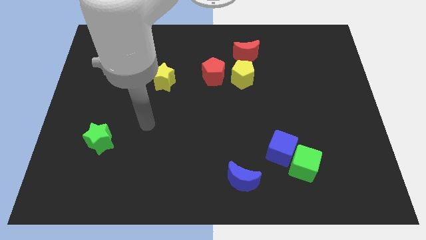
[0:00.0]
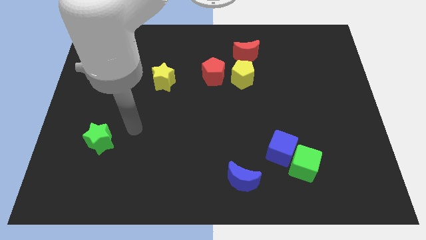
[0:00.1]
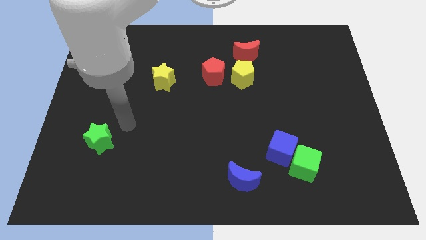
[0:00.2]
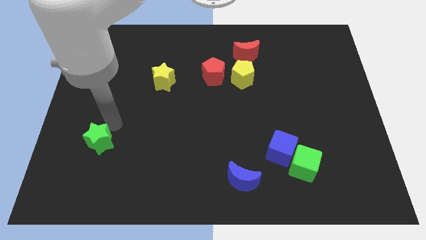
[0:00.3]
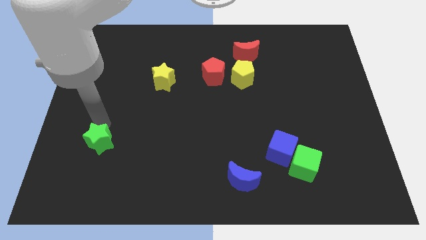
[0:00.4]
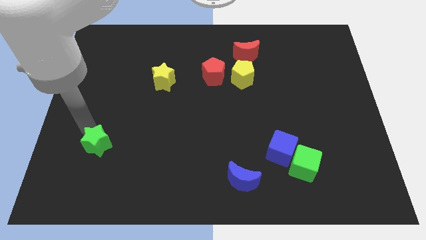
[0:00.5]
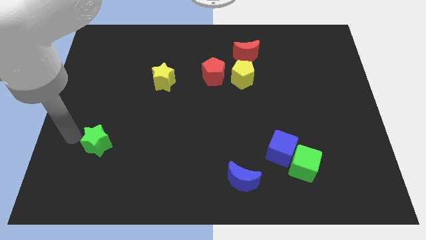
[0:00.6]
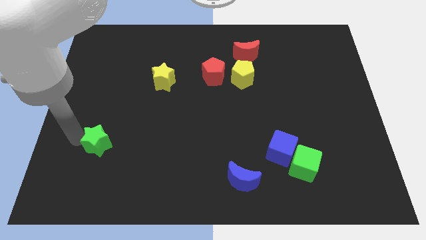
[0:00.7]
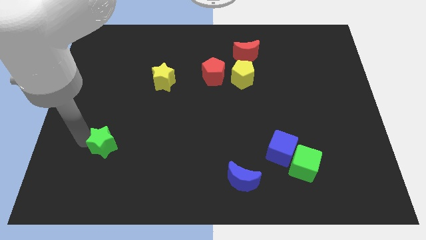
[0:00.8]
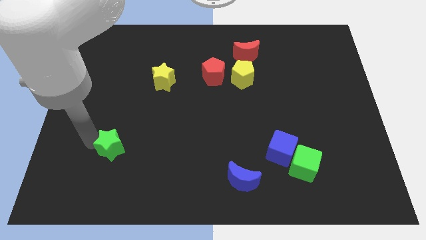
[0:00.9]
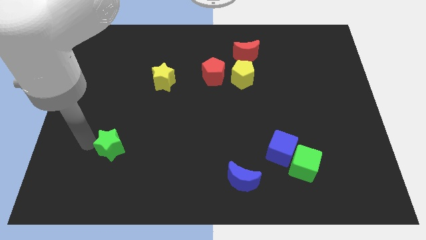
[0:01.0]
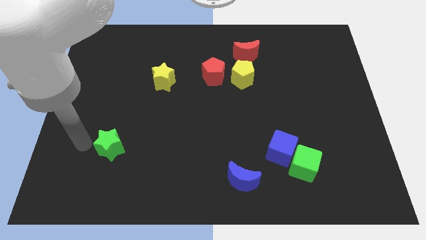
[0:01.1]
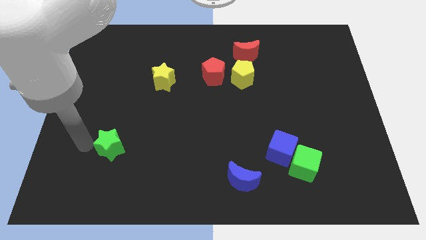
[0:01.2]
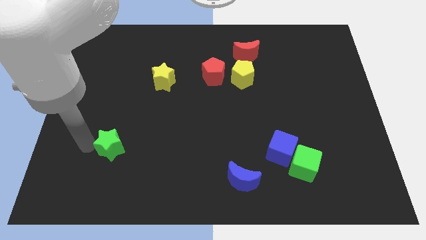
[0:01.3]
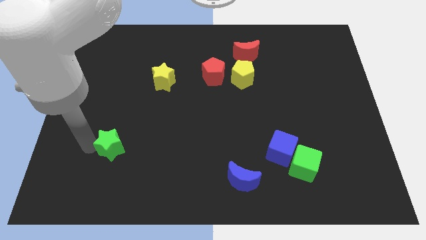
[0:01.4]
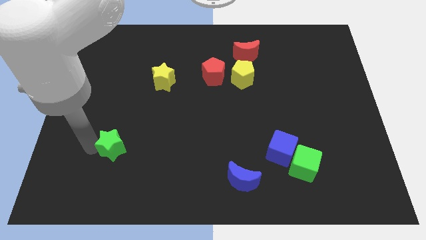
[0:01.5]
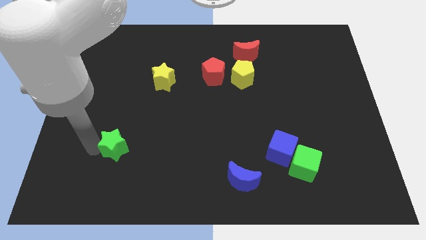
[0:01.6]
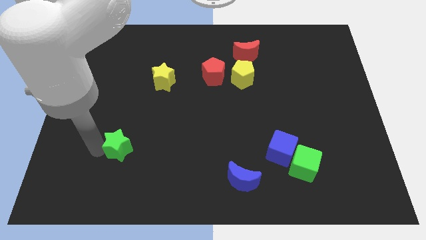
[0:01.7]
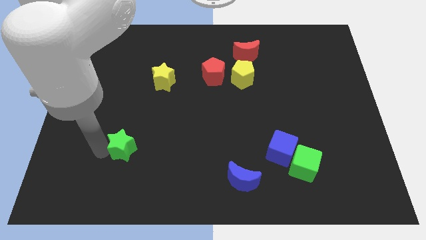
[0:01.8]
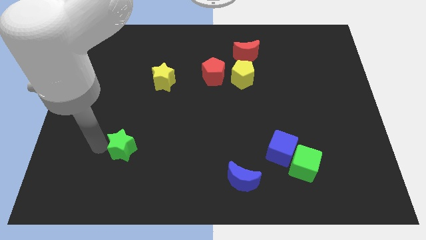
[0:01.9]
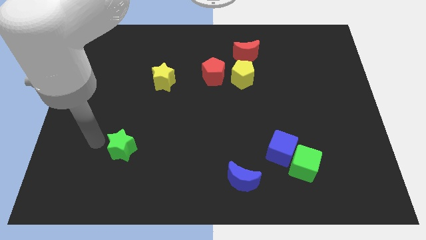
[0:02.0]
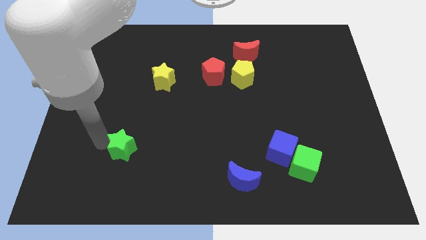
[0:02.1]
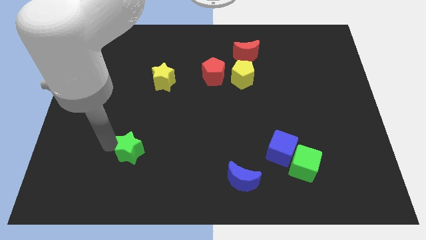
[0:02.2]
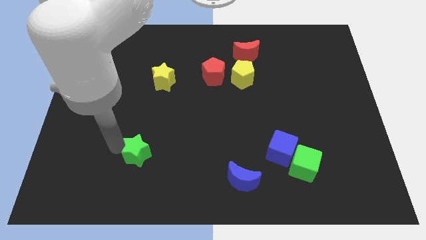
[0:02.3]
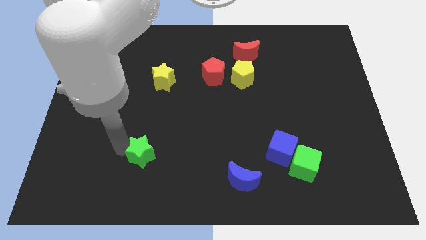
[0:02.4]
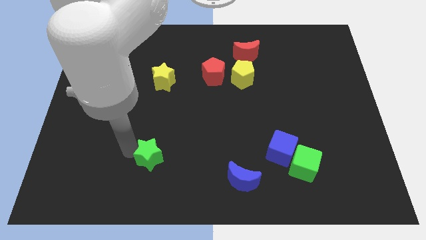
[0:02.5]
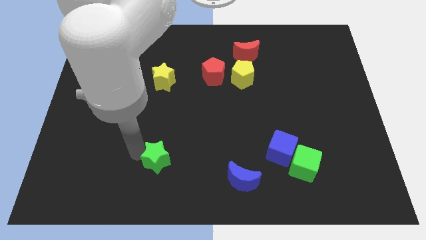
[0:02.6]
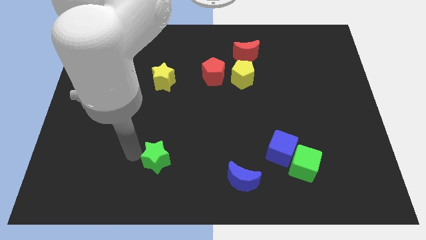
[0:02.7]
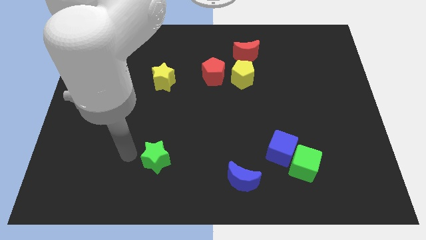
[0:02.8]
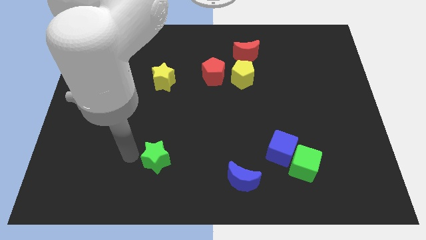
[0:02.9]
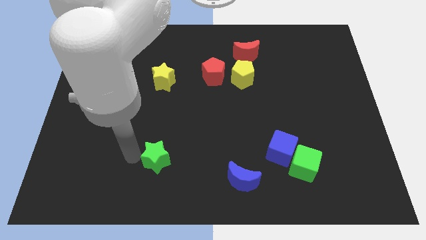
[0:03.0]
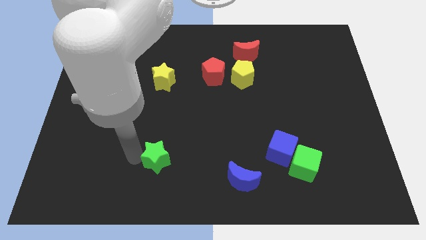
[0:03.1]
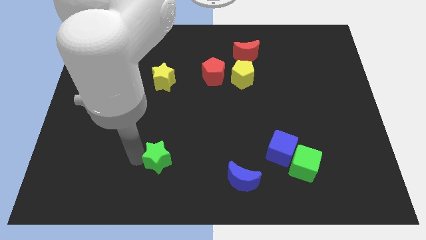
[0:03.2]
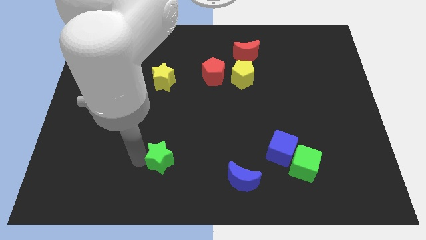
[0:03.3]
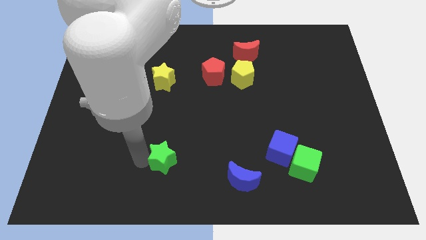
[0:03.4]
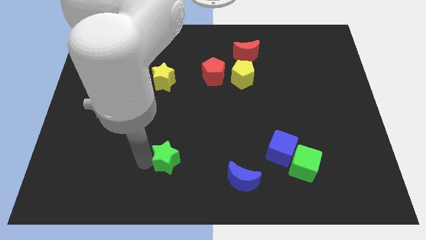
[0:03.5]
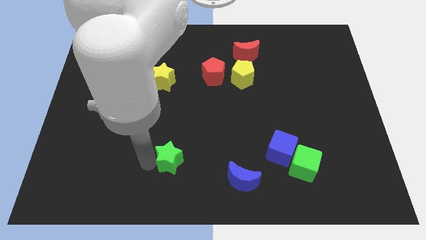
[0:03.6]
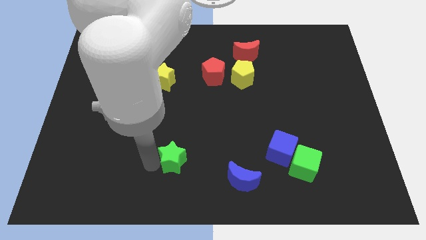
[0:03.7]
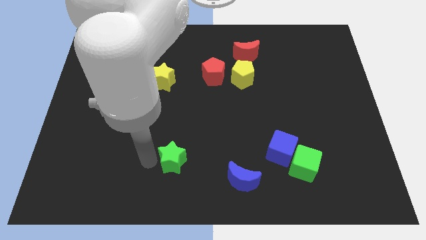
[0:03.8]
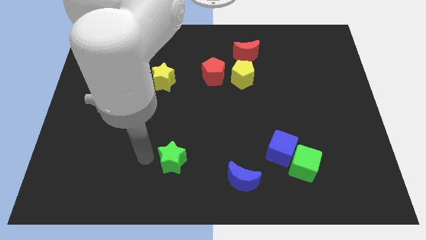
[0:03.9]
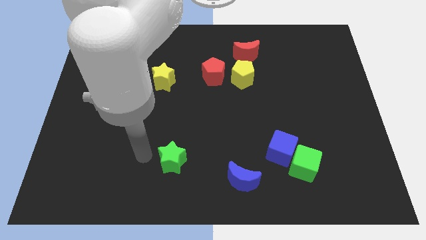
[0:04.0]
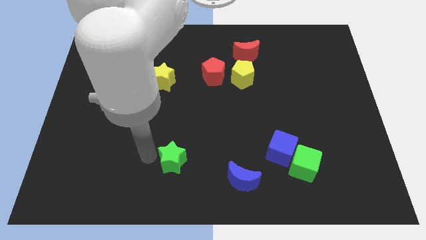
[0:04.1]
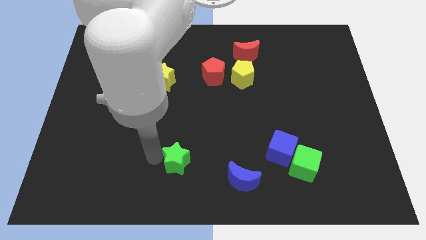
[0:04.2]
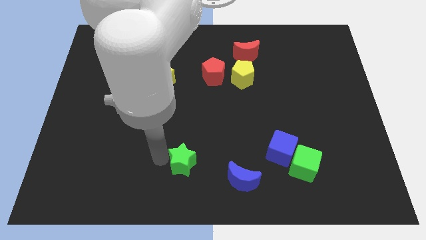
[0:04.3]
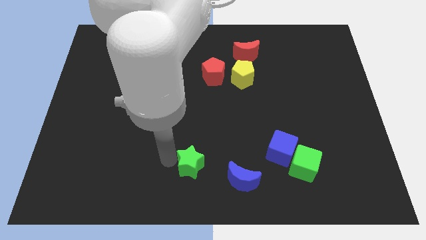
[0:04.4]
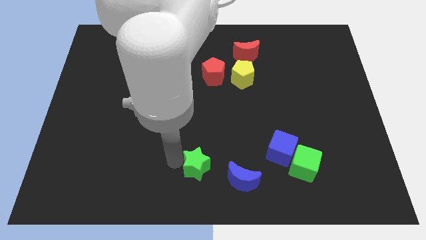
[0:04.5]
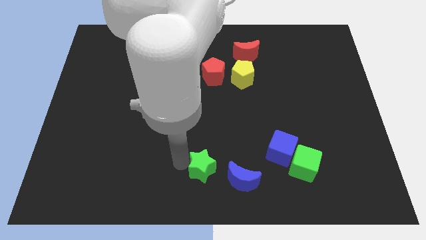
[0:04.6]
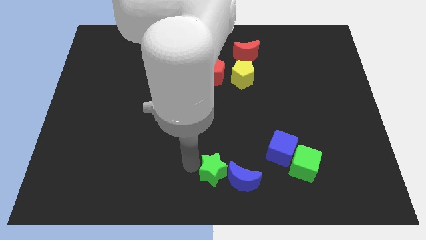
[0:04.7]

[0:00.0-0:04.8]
push the green star close to the blue moon

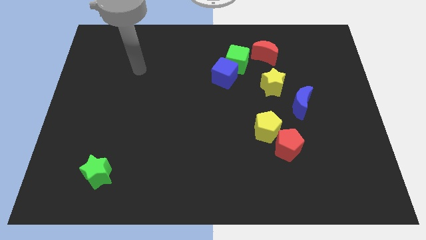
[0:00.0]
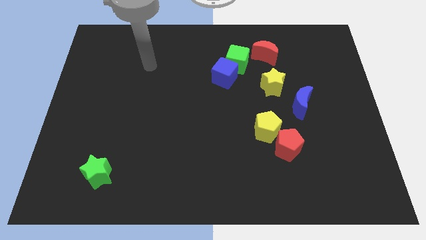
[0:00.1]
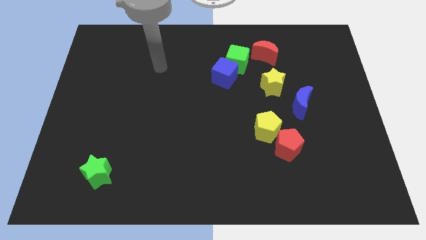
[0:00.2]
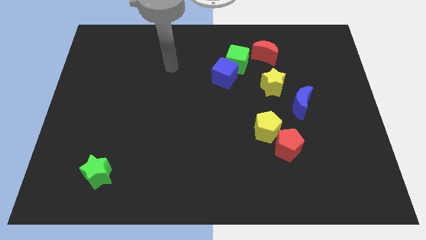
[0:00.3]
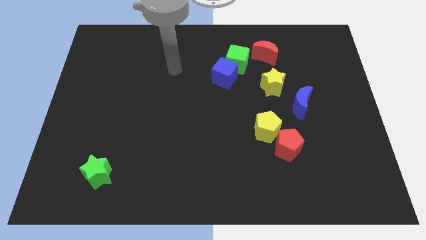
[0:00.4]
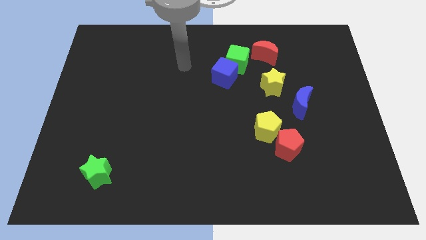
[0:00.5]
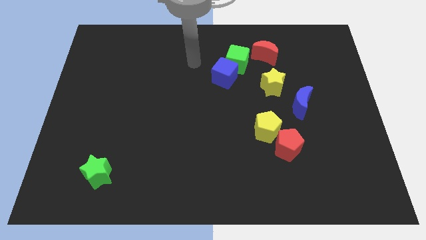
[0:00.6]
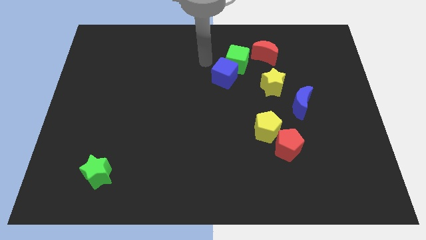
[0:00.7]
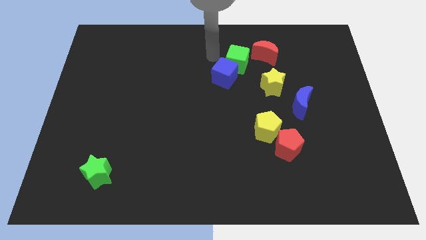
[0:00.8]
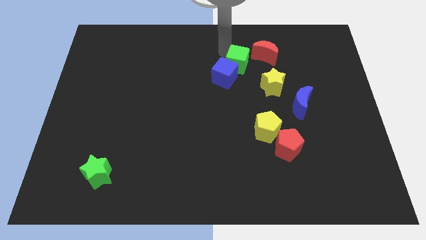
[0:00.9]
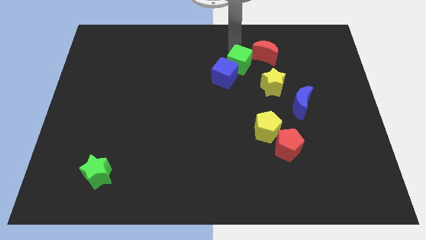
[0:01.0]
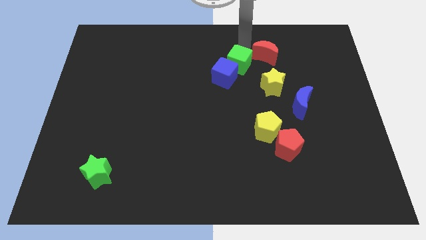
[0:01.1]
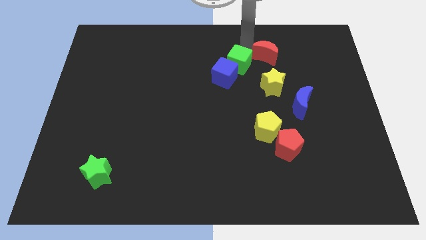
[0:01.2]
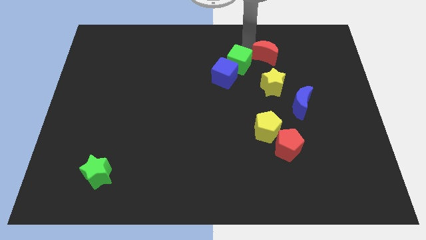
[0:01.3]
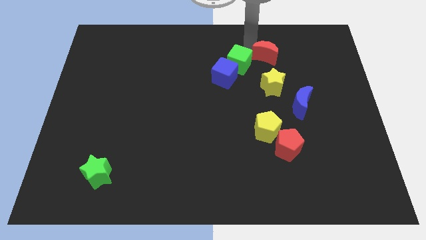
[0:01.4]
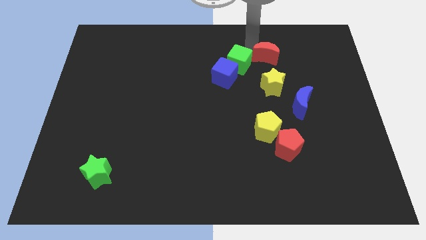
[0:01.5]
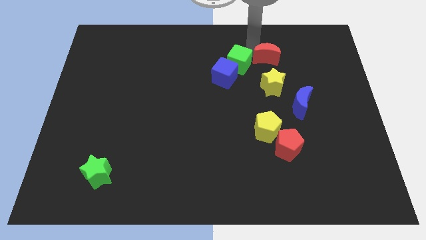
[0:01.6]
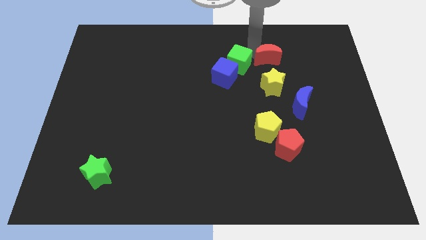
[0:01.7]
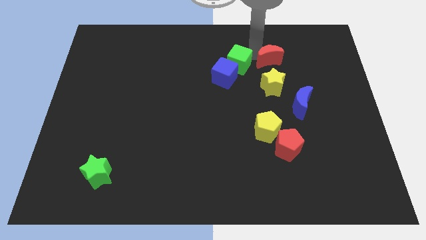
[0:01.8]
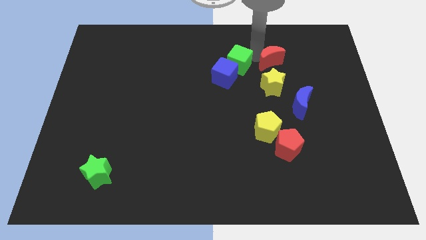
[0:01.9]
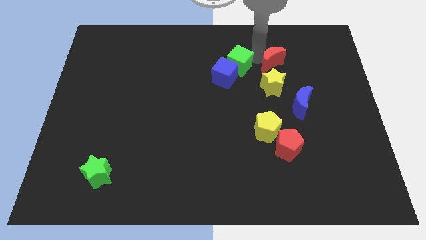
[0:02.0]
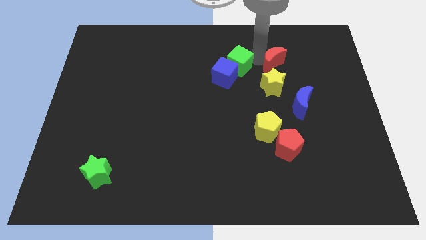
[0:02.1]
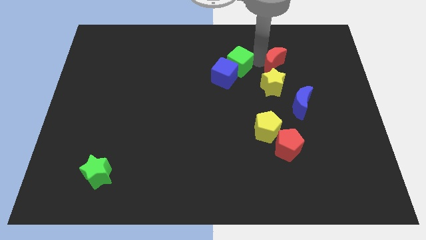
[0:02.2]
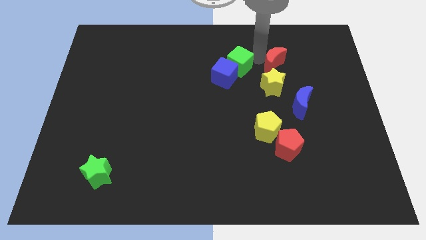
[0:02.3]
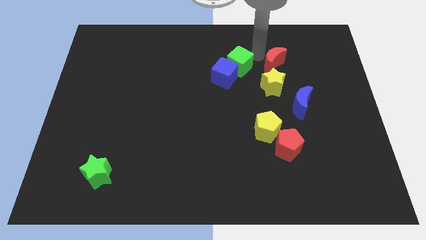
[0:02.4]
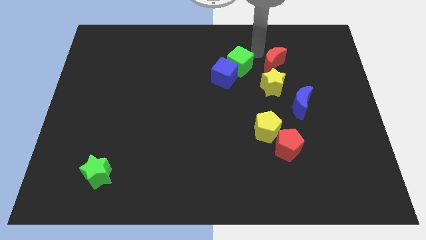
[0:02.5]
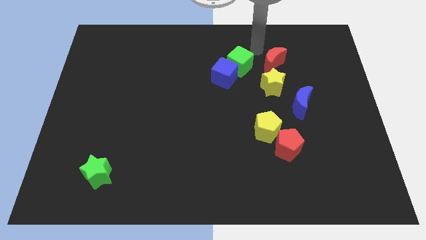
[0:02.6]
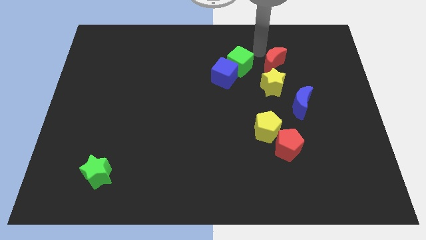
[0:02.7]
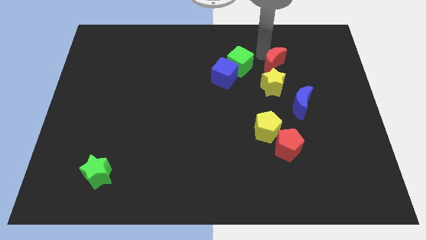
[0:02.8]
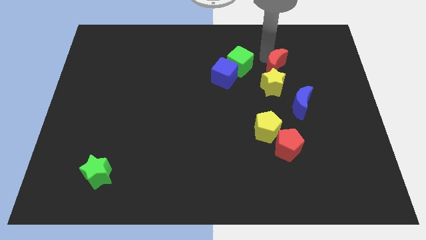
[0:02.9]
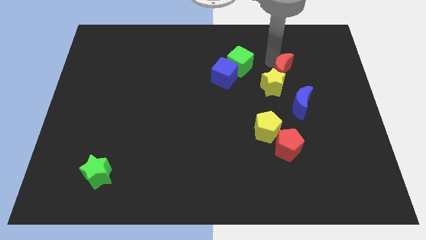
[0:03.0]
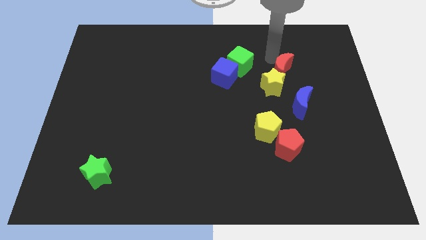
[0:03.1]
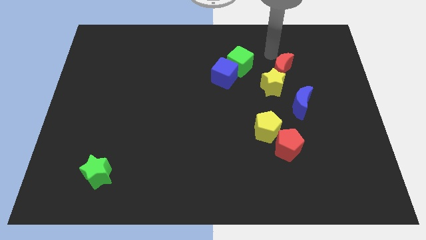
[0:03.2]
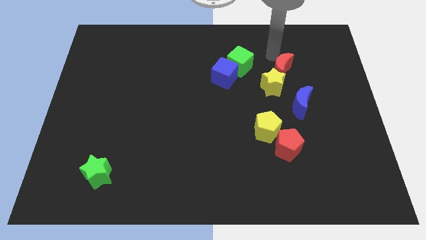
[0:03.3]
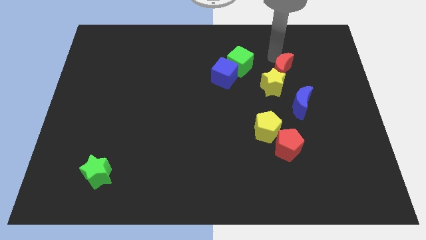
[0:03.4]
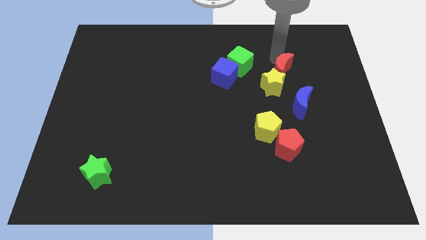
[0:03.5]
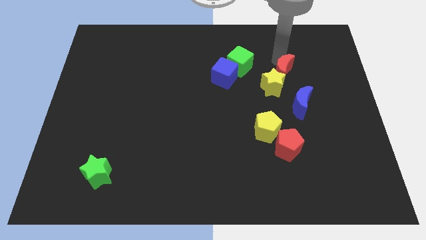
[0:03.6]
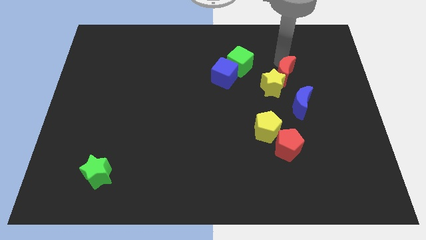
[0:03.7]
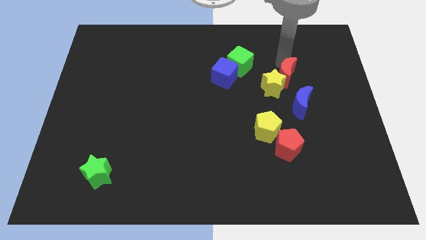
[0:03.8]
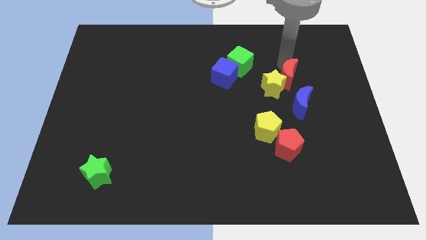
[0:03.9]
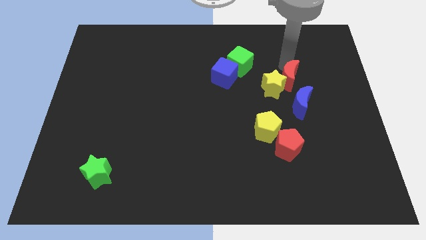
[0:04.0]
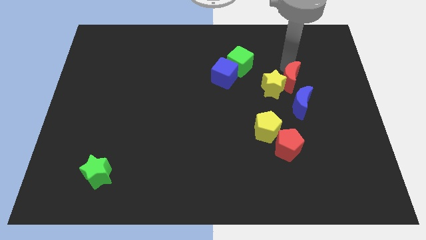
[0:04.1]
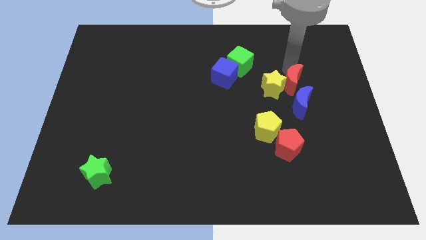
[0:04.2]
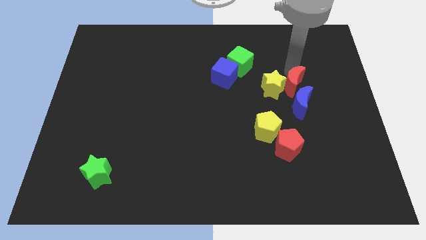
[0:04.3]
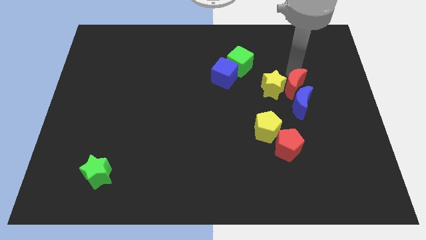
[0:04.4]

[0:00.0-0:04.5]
push the red moon to the blue moon
